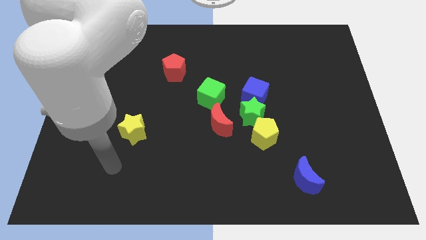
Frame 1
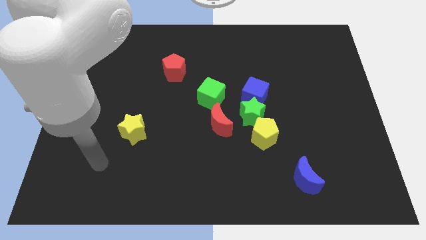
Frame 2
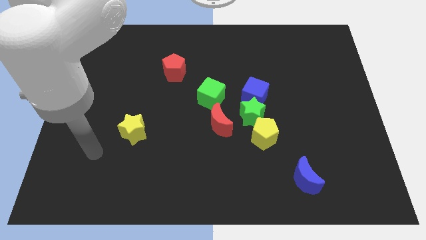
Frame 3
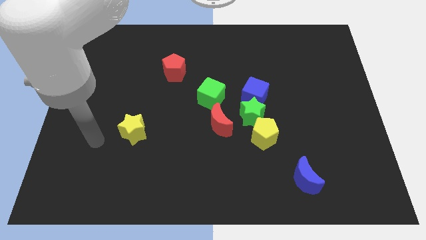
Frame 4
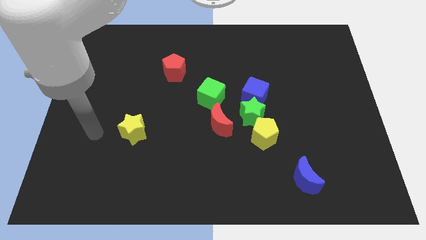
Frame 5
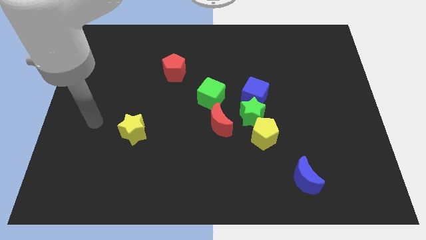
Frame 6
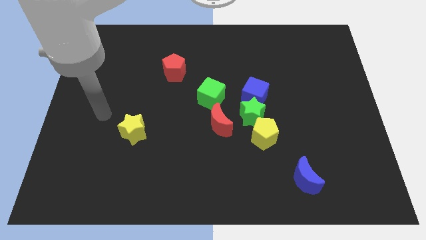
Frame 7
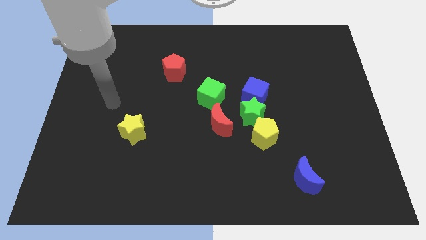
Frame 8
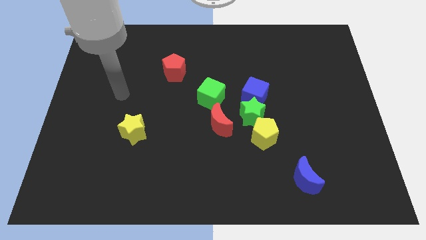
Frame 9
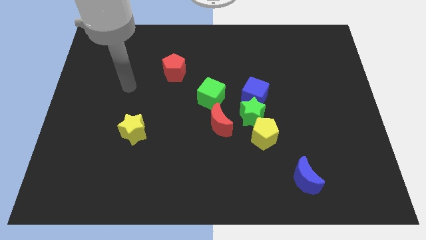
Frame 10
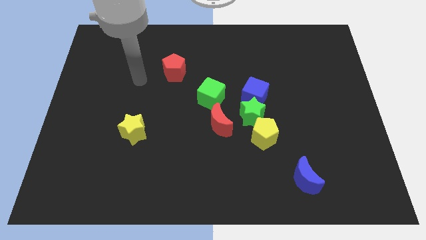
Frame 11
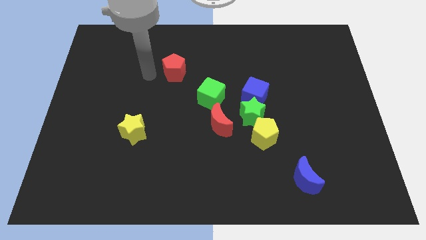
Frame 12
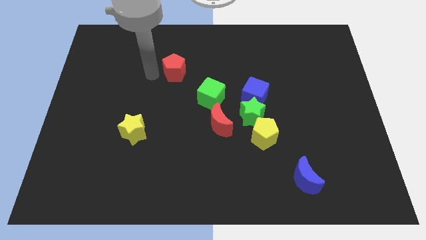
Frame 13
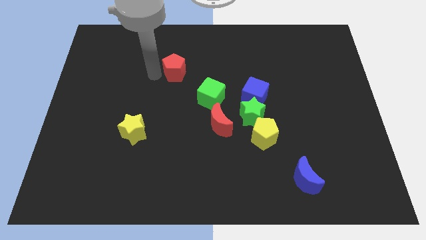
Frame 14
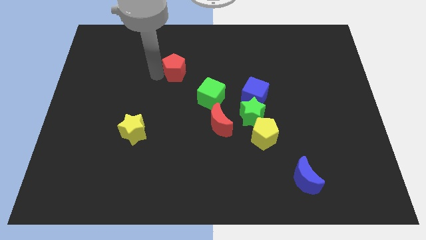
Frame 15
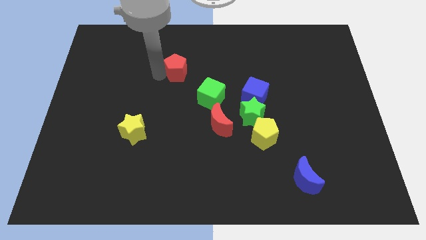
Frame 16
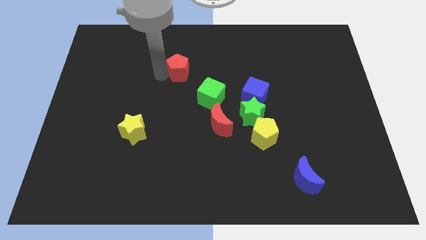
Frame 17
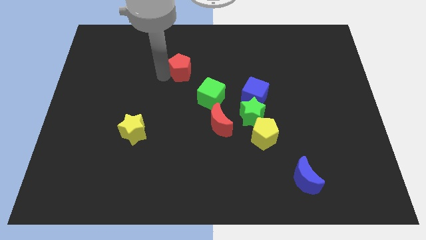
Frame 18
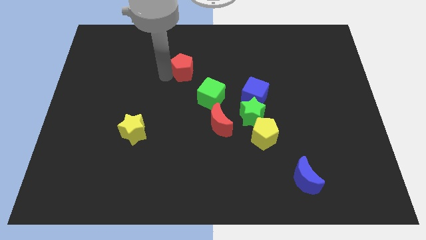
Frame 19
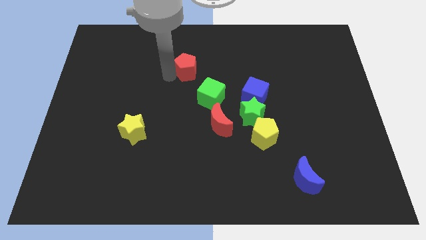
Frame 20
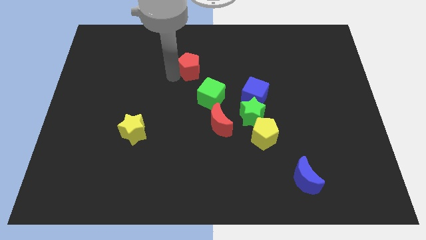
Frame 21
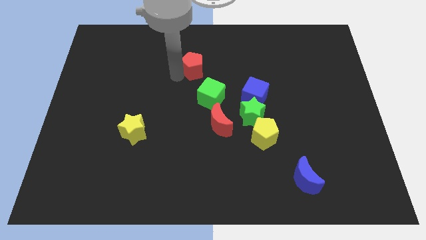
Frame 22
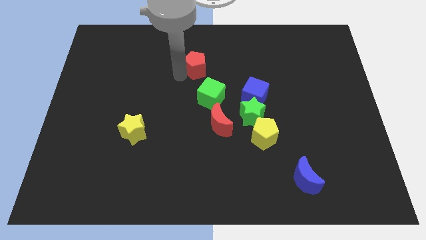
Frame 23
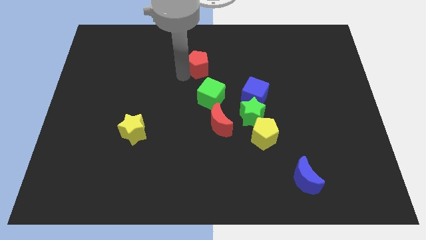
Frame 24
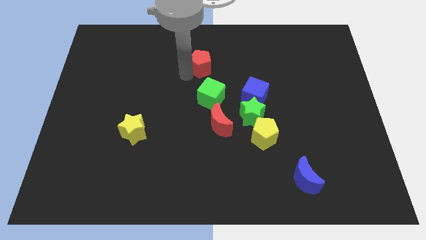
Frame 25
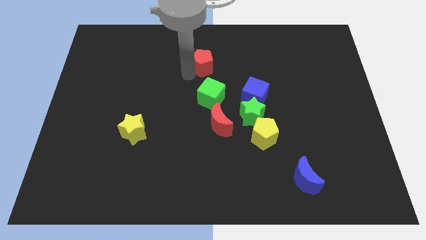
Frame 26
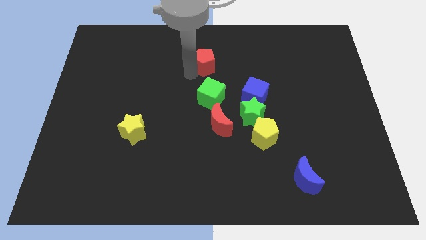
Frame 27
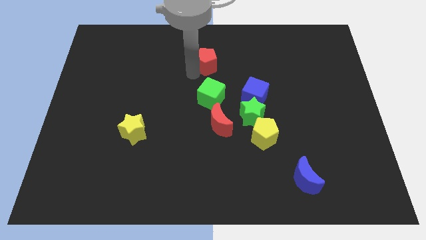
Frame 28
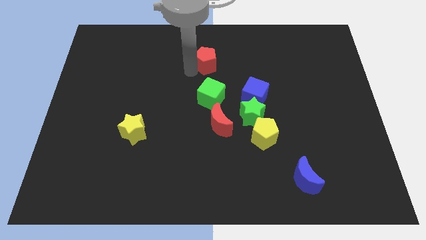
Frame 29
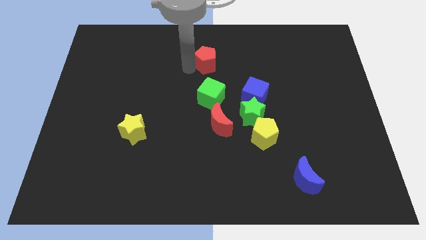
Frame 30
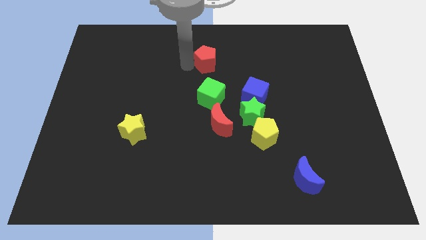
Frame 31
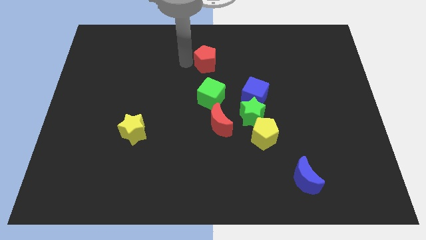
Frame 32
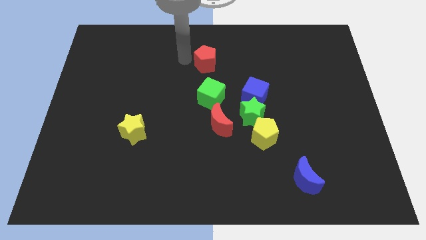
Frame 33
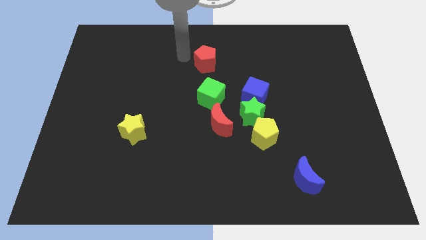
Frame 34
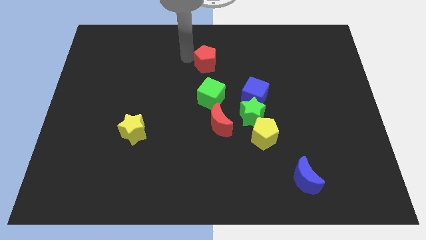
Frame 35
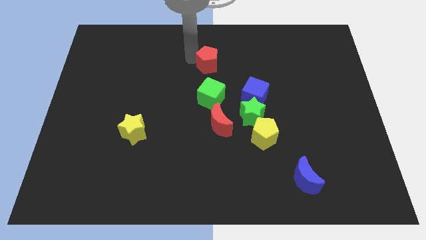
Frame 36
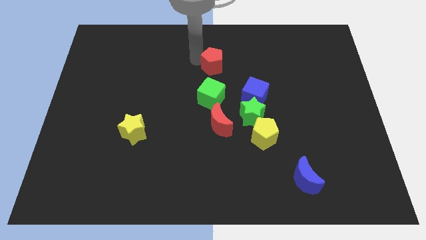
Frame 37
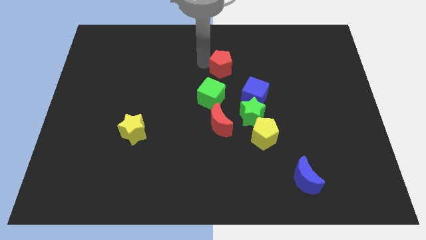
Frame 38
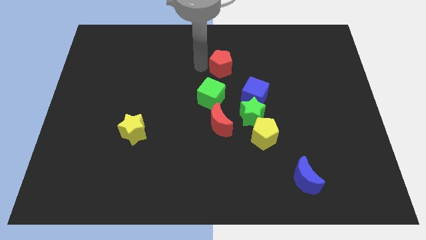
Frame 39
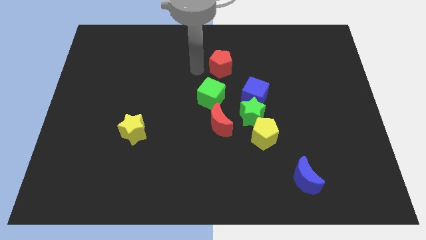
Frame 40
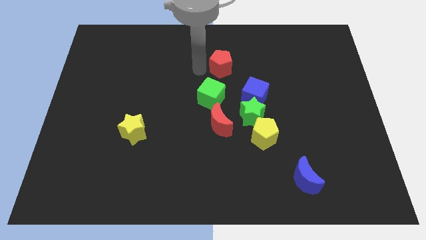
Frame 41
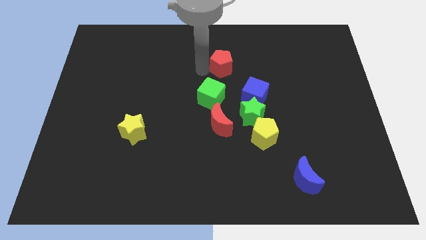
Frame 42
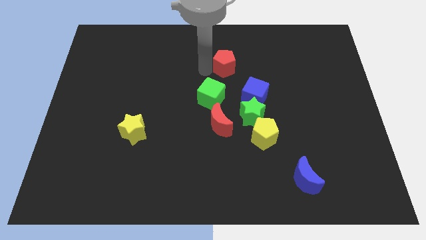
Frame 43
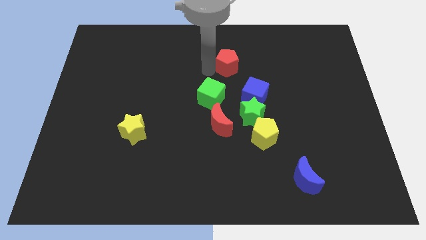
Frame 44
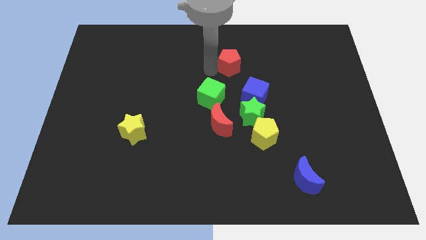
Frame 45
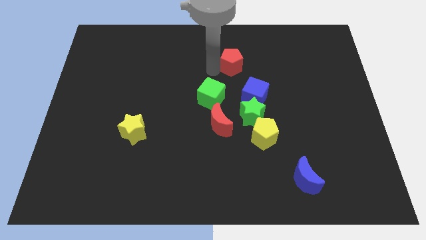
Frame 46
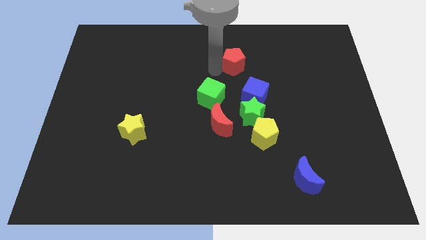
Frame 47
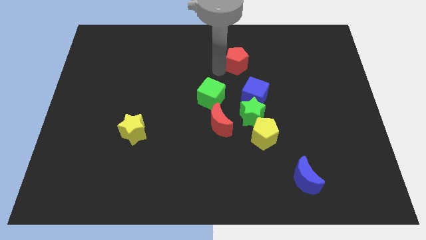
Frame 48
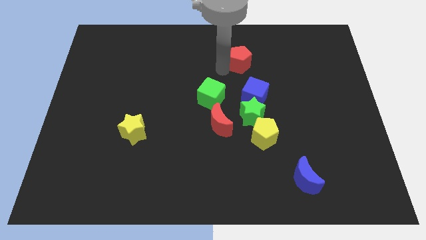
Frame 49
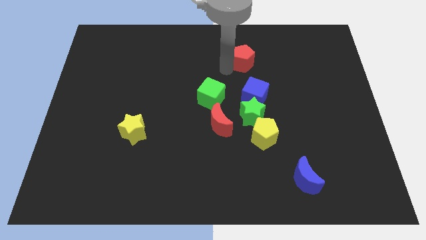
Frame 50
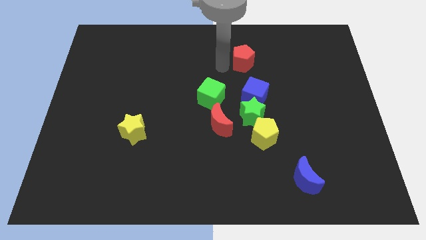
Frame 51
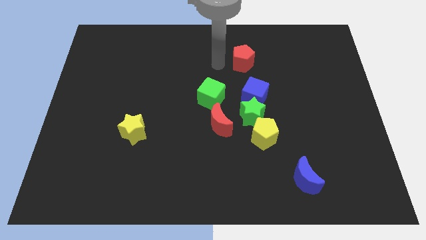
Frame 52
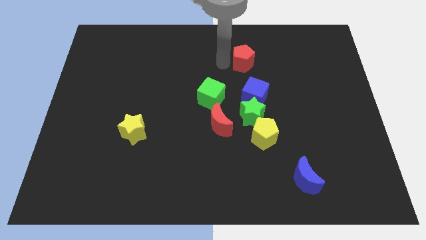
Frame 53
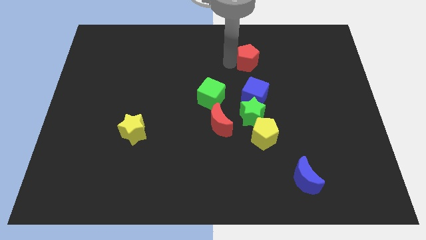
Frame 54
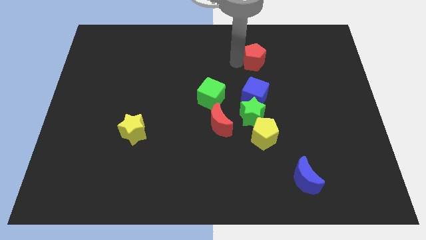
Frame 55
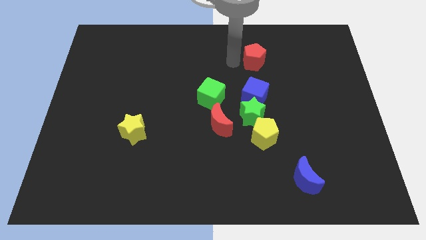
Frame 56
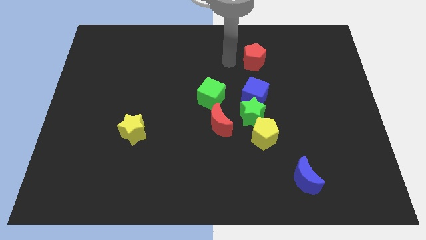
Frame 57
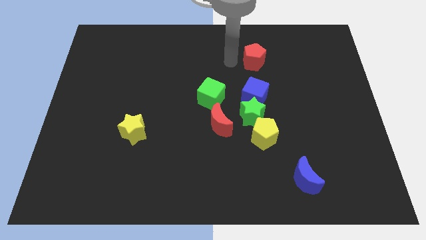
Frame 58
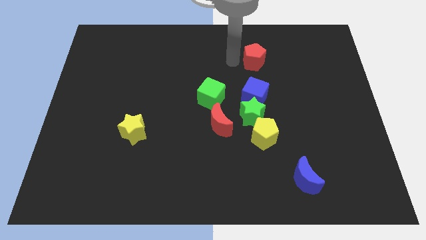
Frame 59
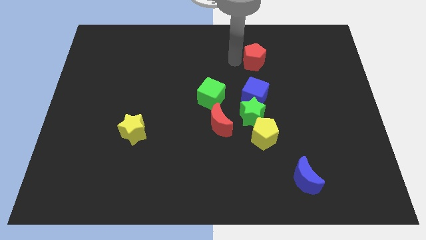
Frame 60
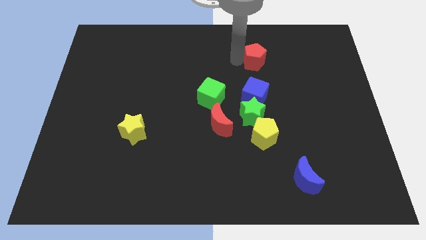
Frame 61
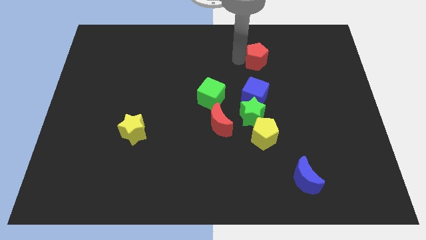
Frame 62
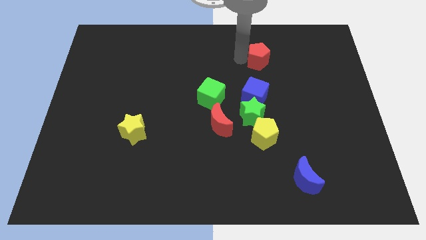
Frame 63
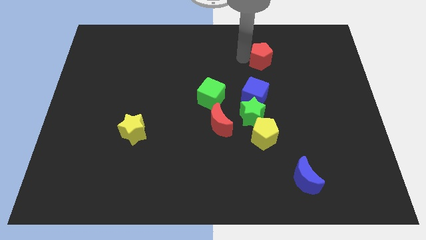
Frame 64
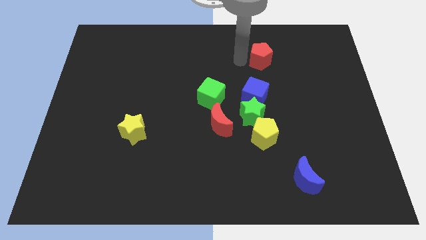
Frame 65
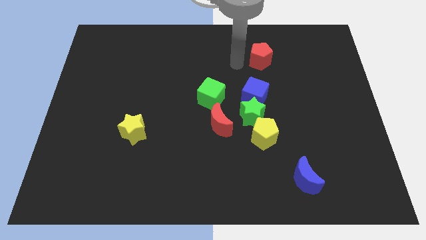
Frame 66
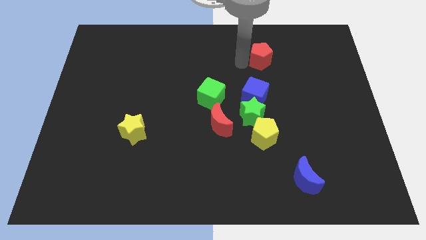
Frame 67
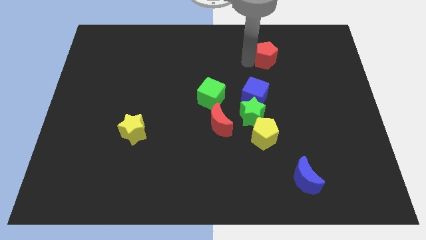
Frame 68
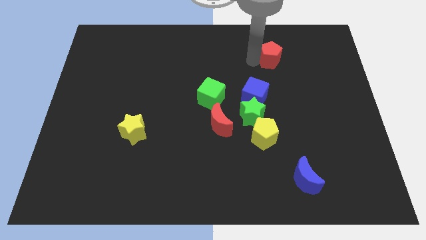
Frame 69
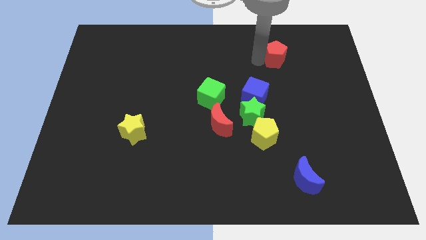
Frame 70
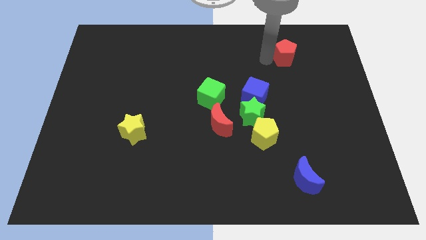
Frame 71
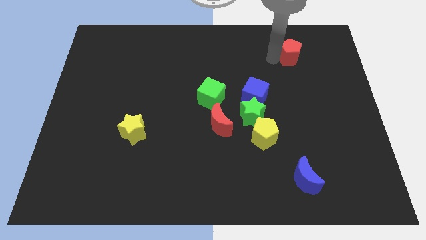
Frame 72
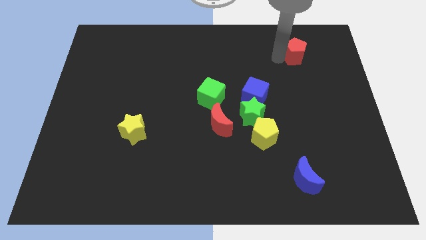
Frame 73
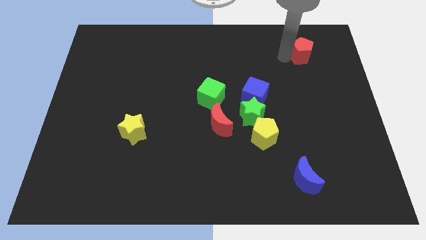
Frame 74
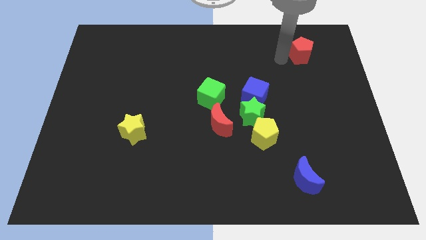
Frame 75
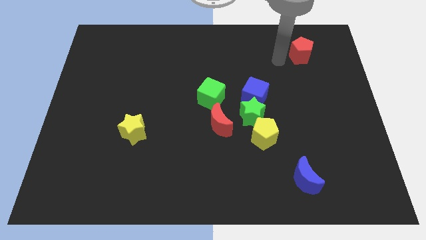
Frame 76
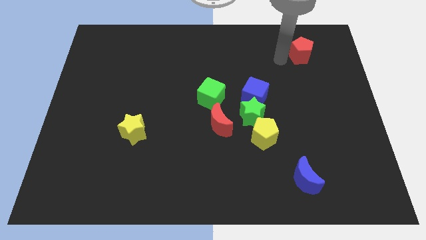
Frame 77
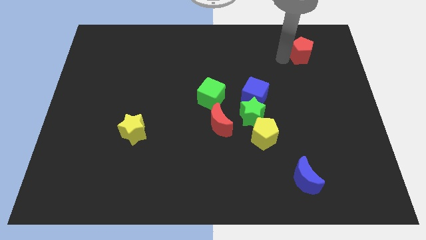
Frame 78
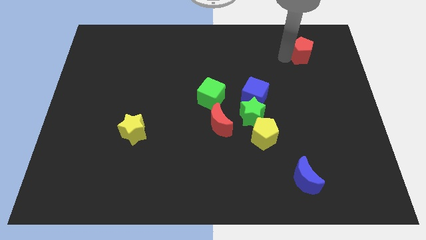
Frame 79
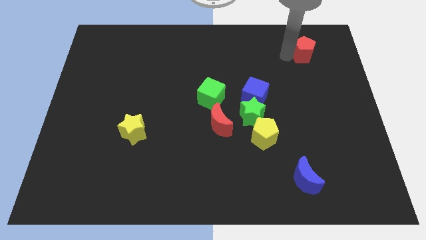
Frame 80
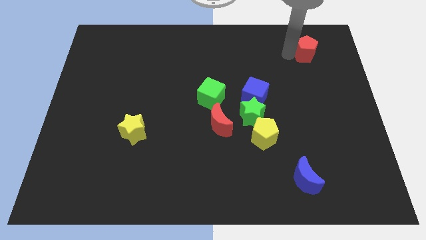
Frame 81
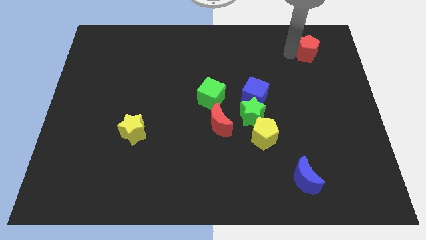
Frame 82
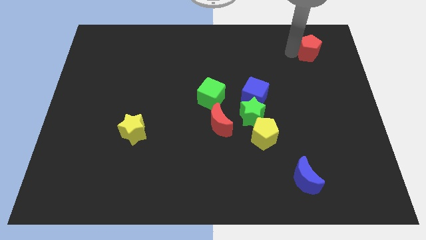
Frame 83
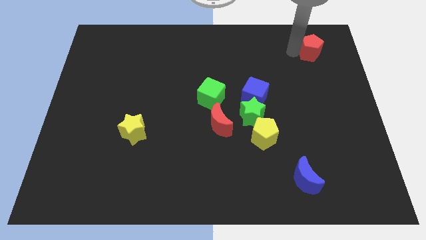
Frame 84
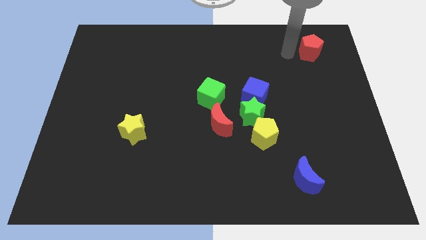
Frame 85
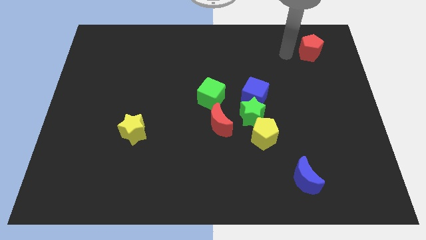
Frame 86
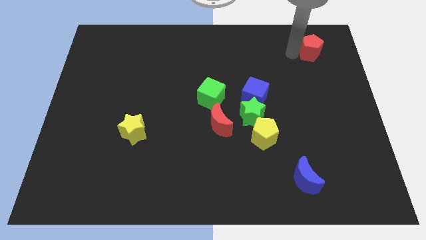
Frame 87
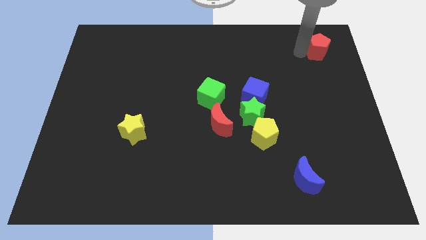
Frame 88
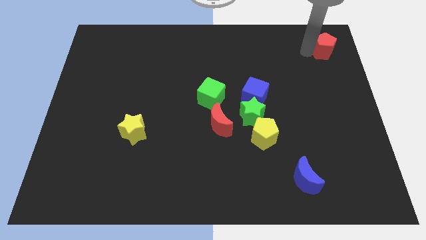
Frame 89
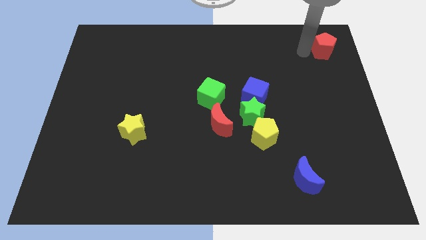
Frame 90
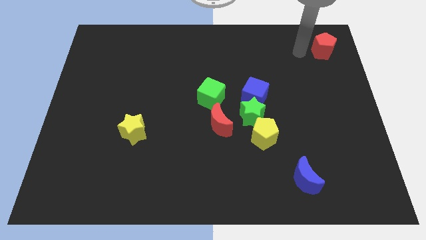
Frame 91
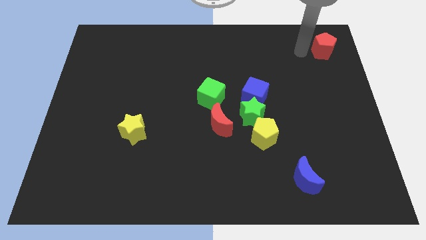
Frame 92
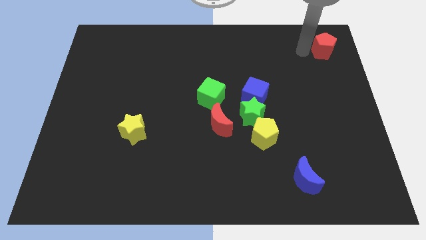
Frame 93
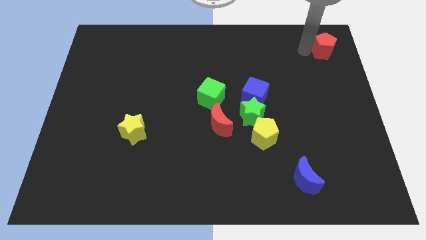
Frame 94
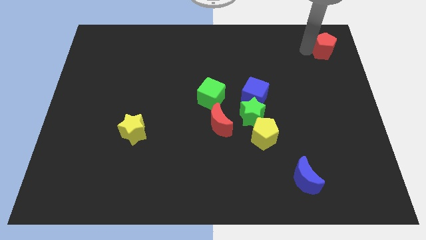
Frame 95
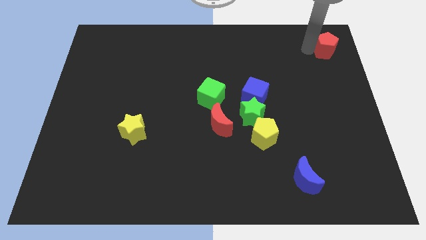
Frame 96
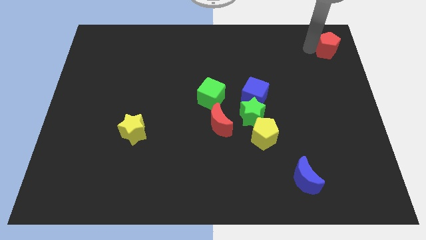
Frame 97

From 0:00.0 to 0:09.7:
push the red pentagon to the top right corner
